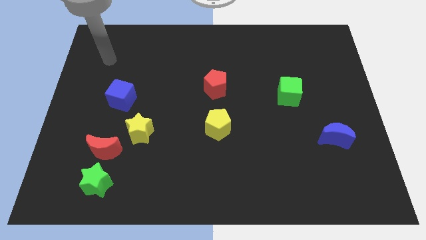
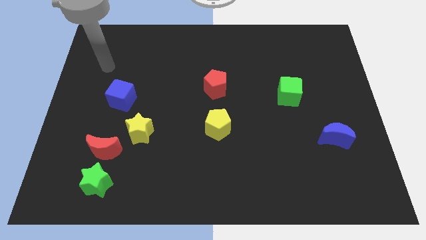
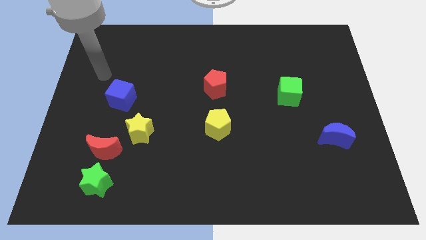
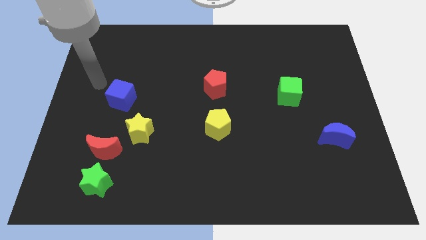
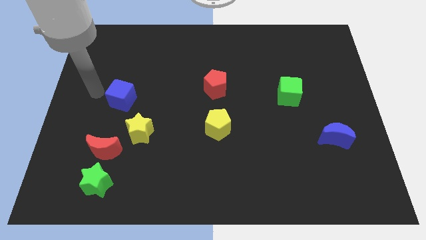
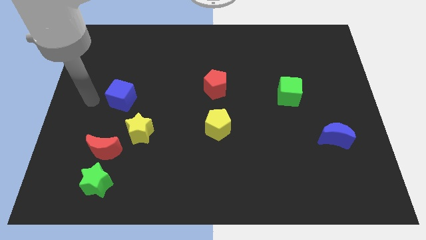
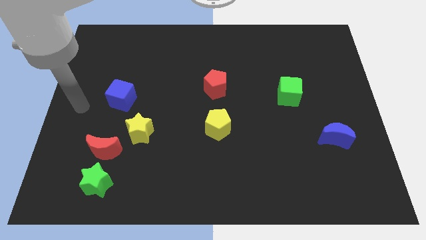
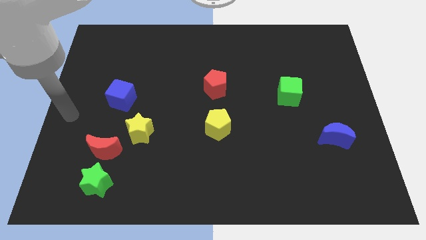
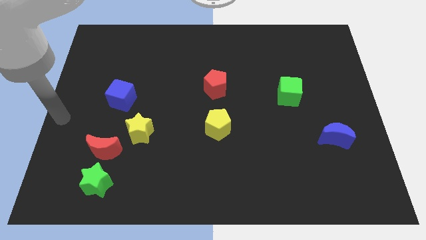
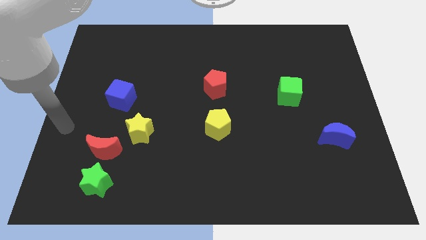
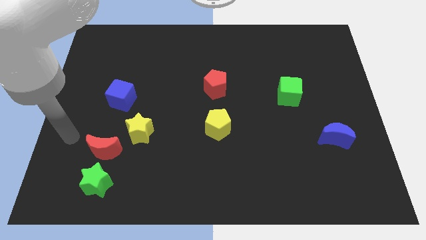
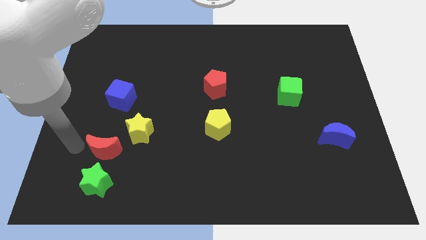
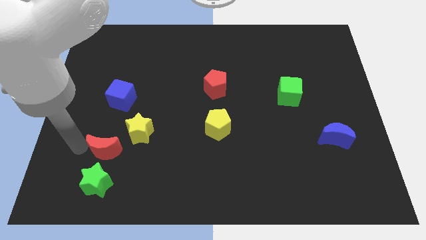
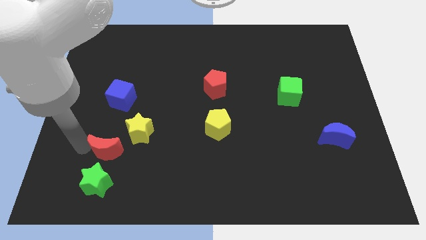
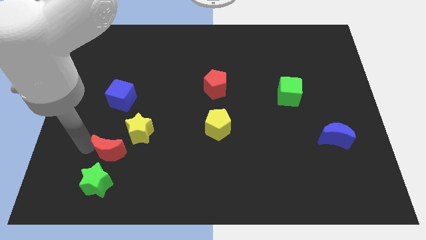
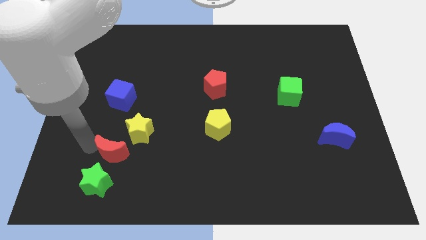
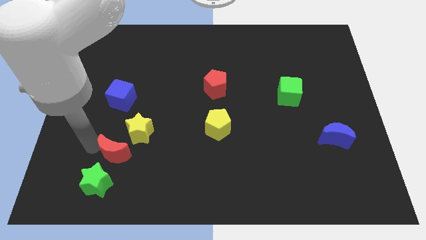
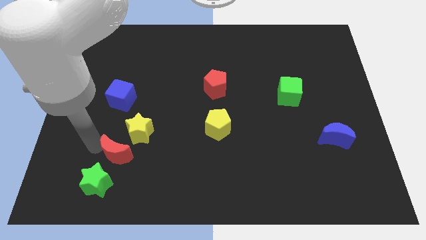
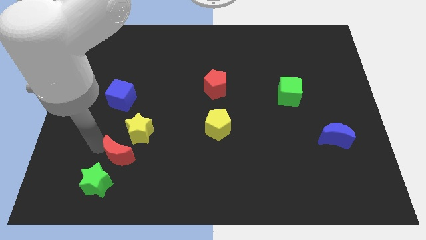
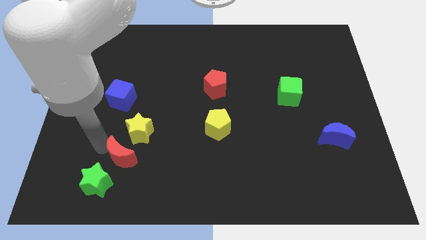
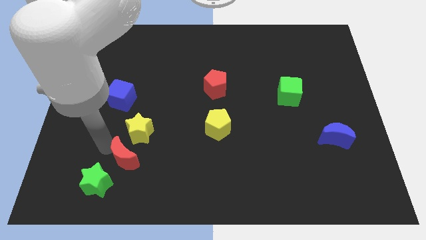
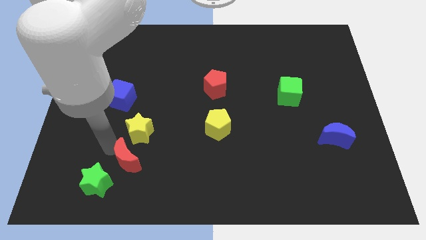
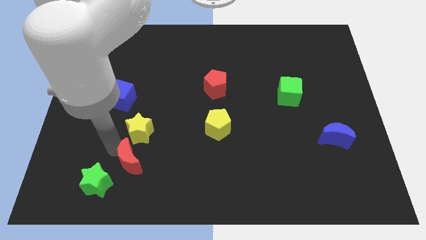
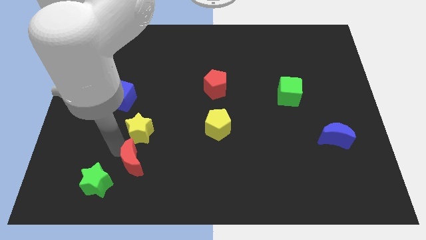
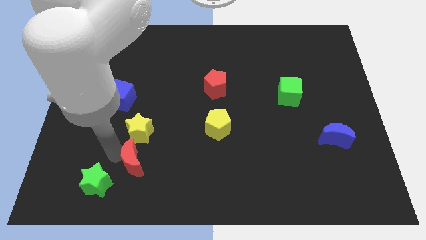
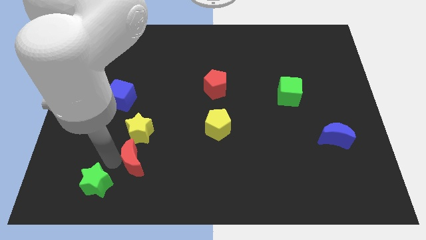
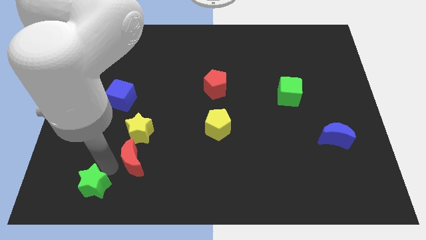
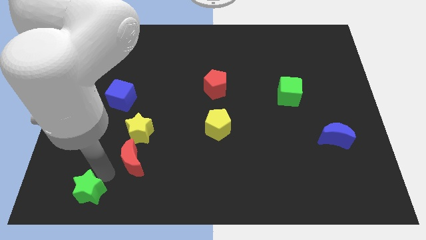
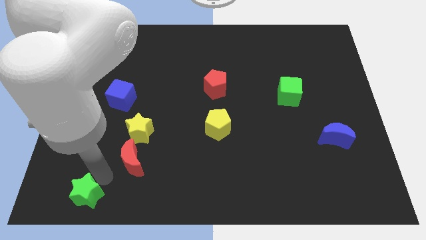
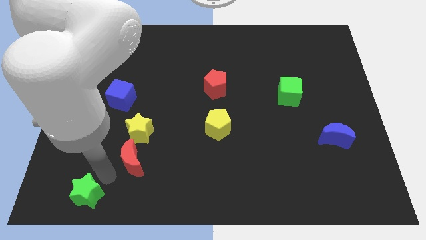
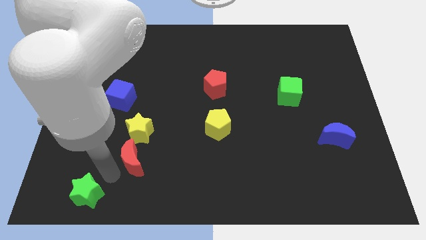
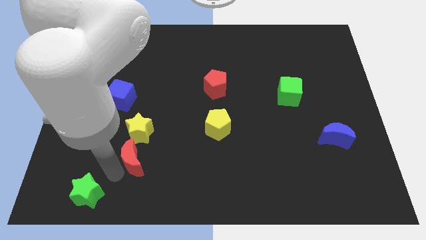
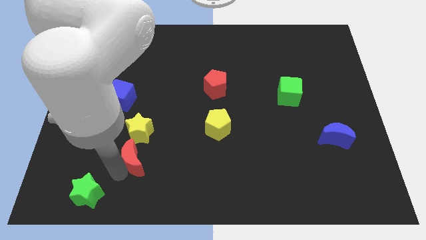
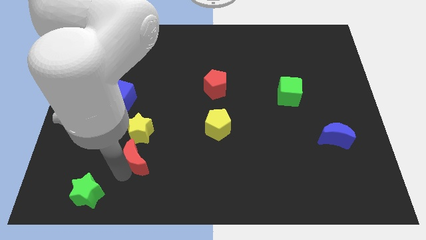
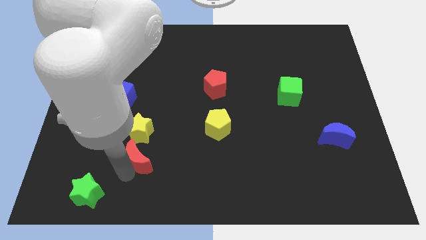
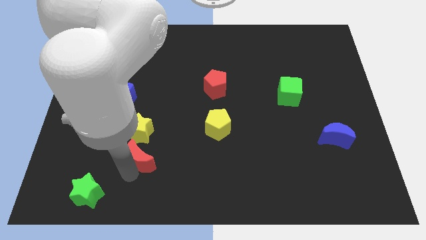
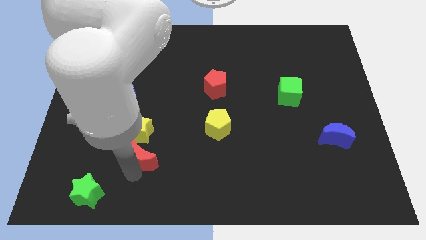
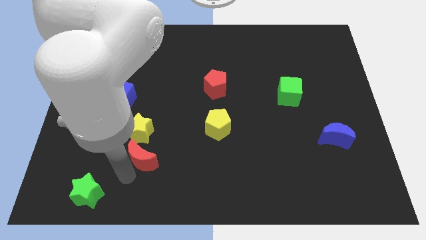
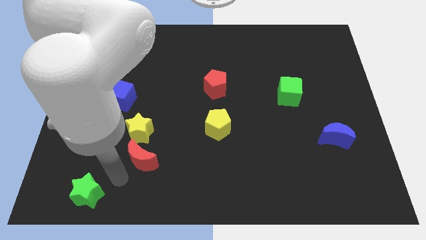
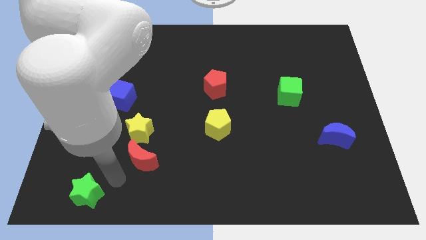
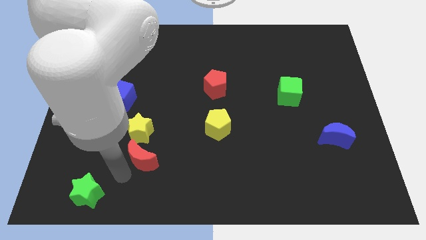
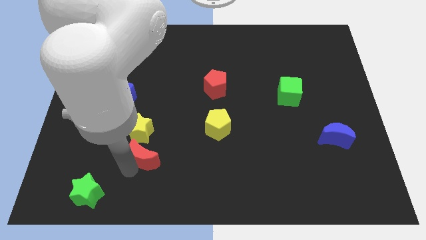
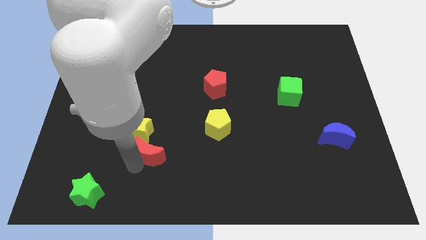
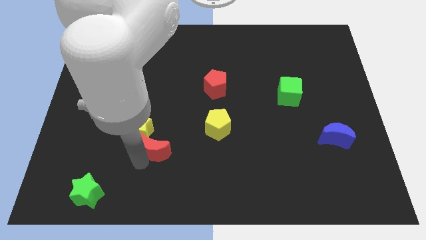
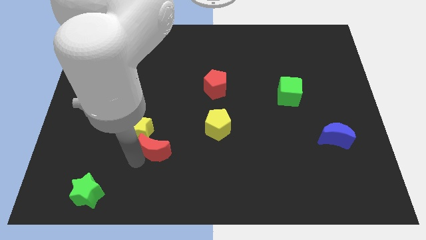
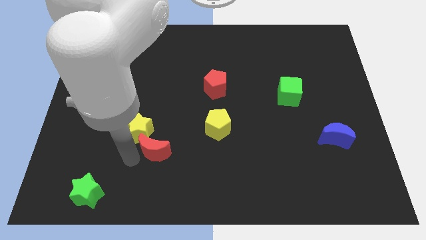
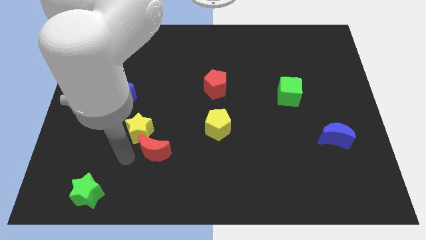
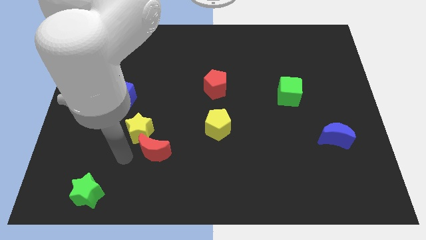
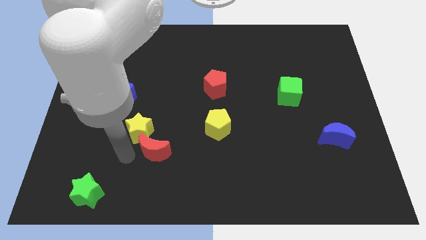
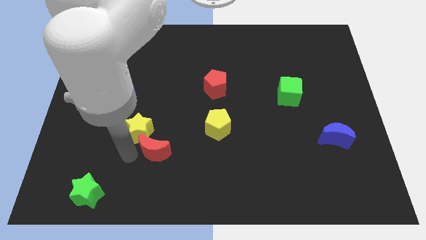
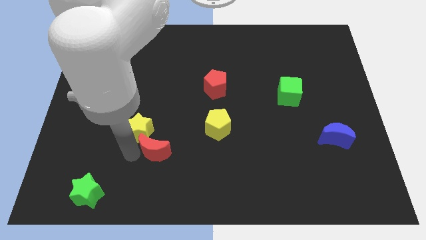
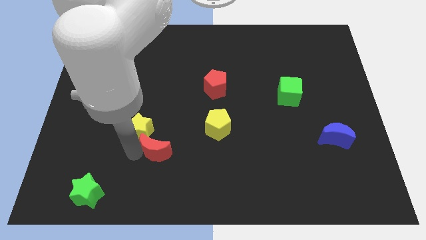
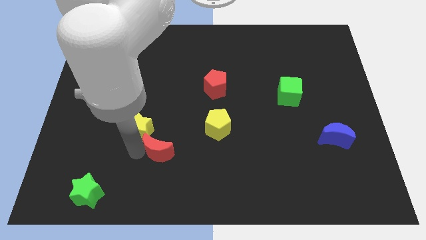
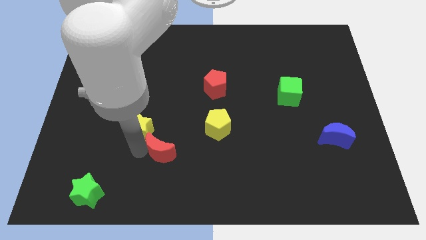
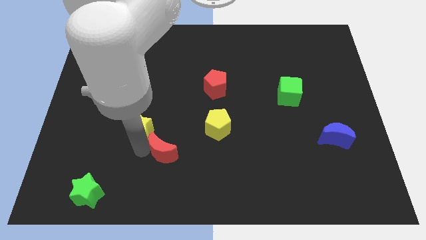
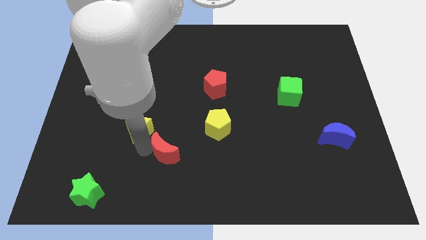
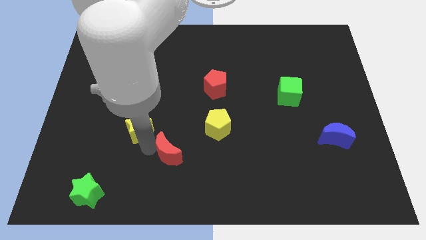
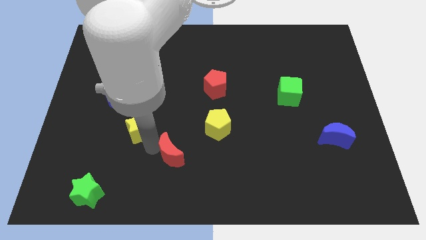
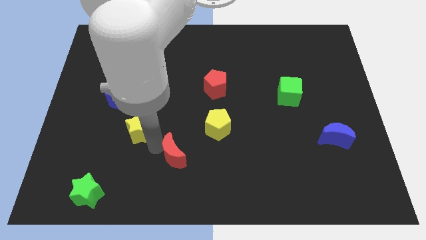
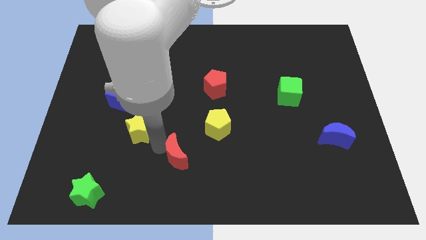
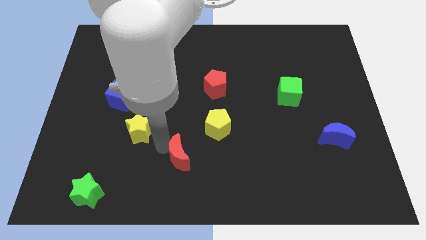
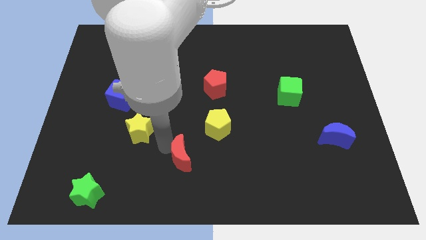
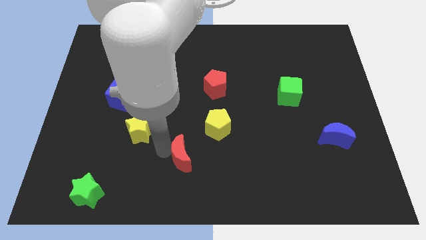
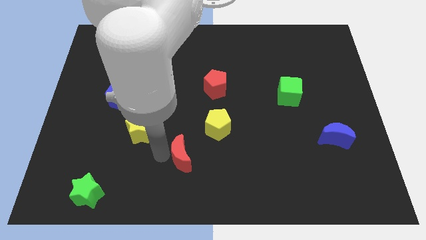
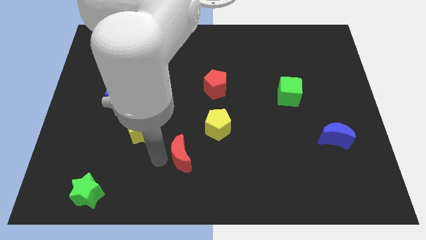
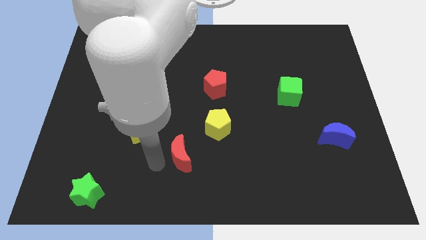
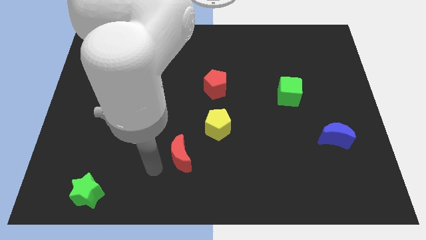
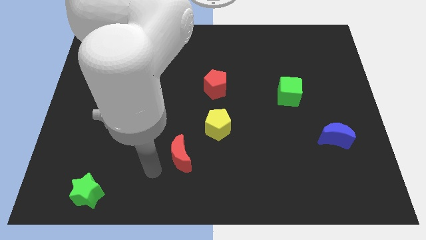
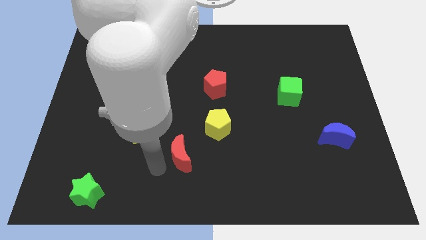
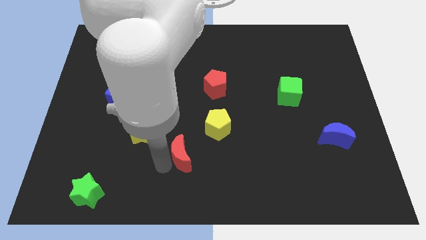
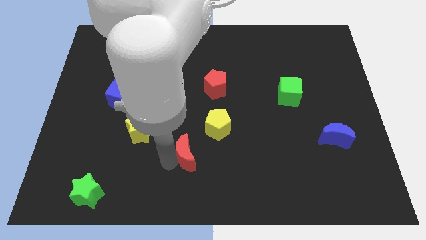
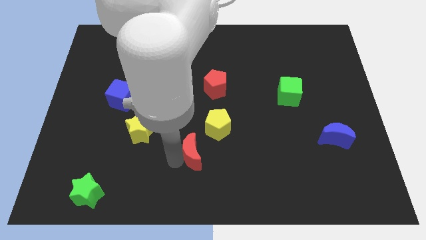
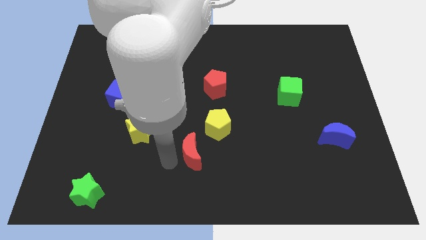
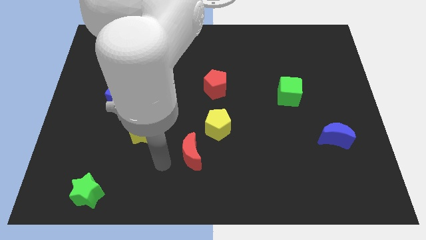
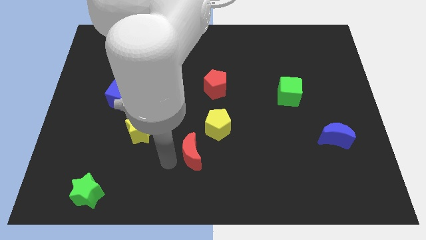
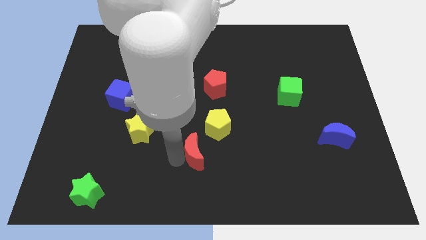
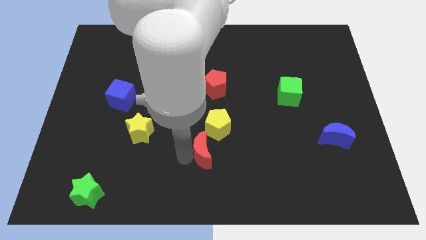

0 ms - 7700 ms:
move the red moon right

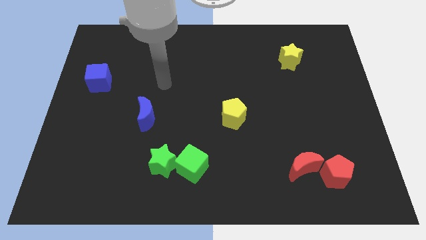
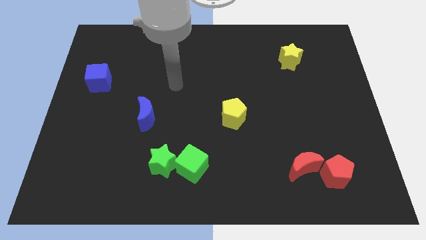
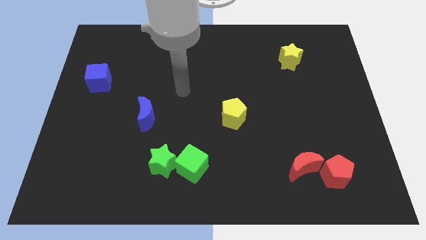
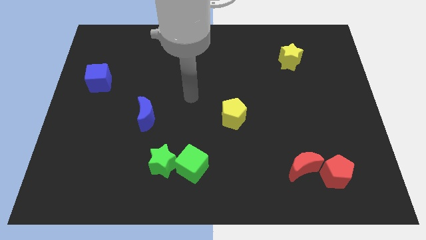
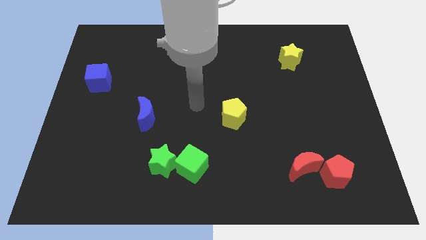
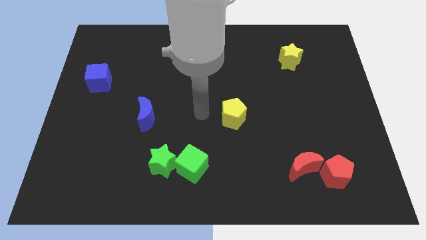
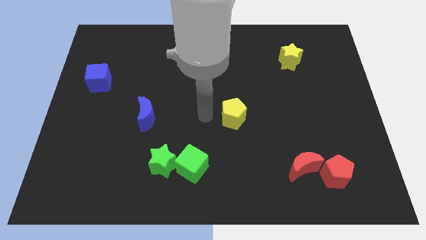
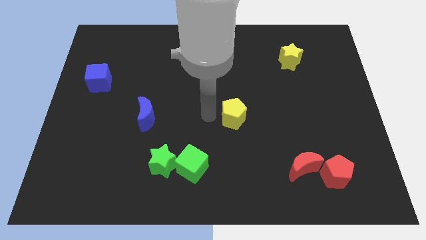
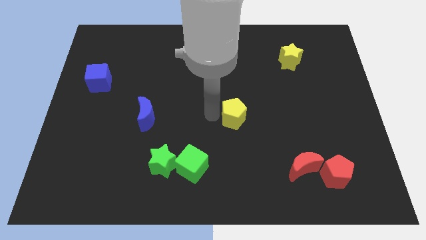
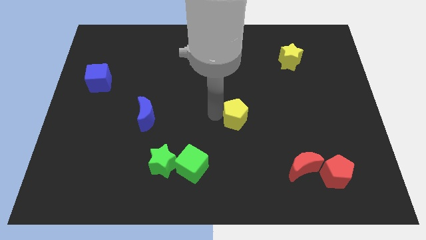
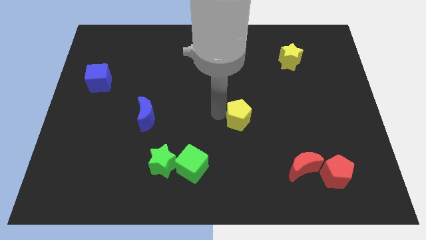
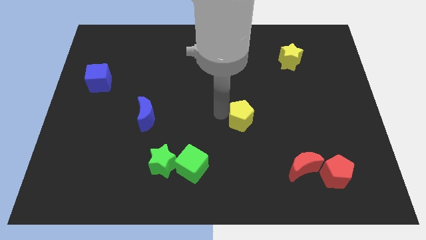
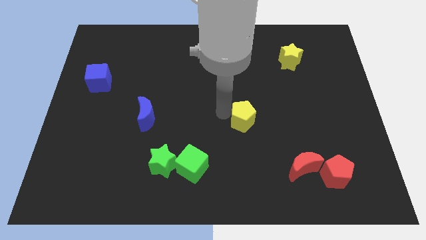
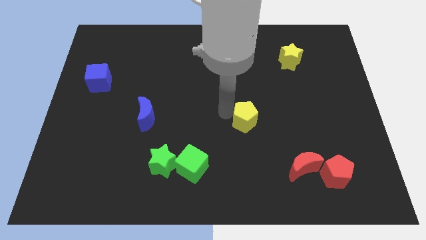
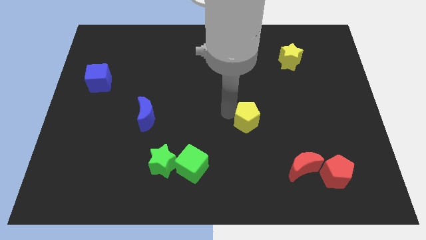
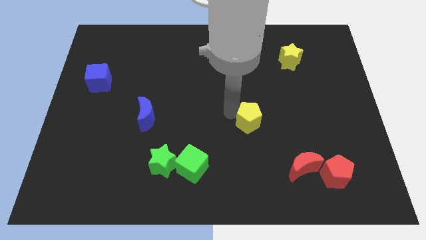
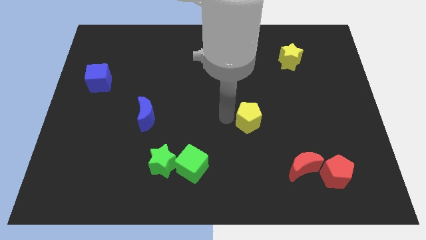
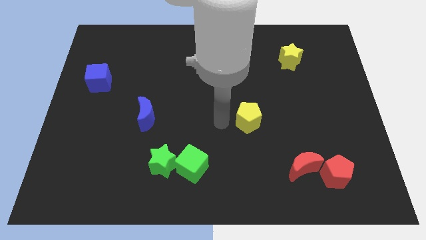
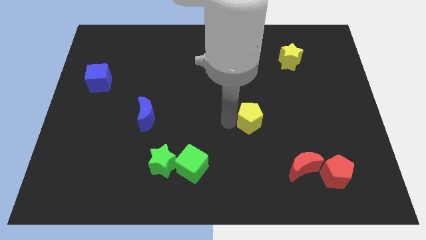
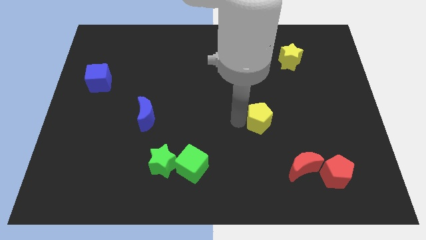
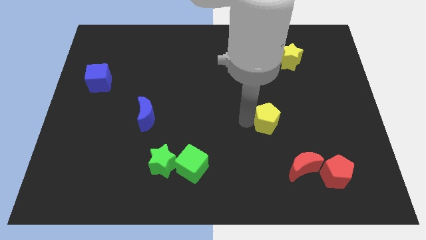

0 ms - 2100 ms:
move the yellow pentagon to the right slightly
